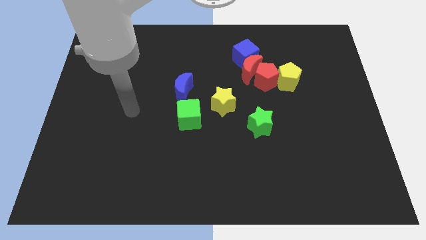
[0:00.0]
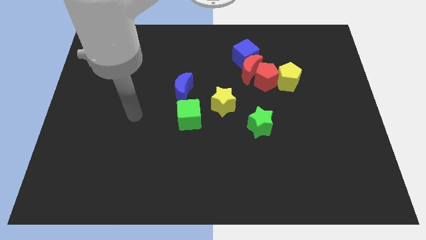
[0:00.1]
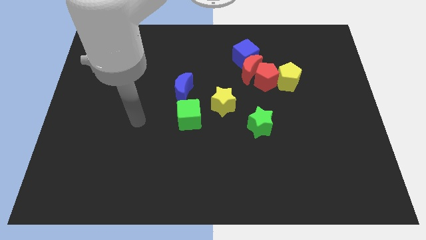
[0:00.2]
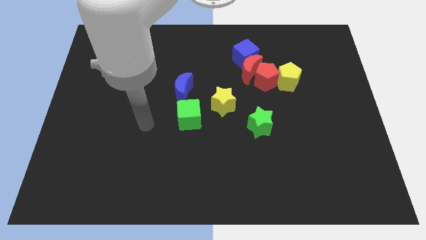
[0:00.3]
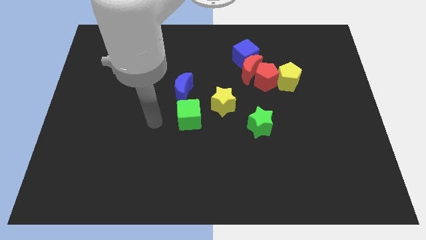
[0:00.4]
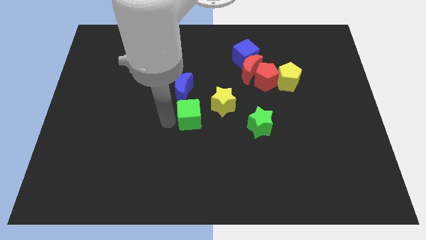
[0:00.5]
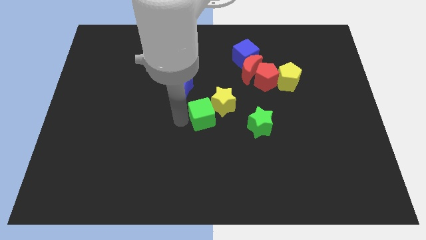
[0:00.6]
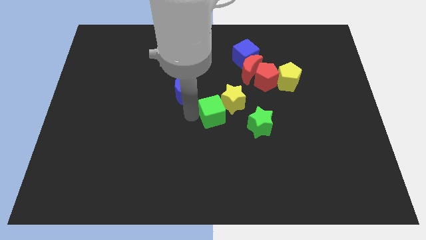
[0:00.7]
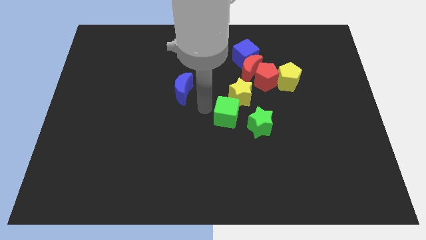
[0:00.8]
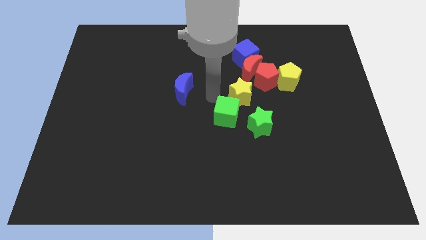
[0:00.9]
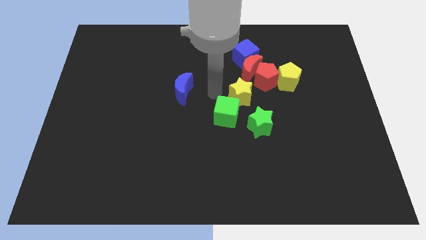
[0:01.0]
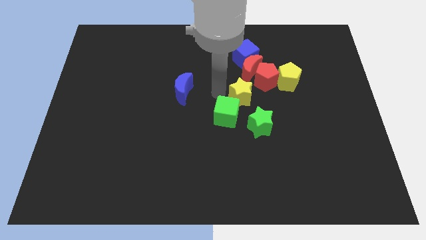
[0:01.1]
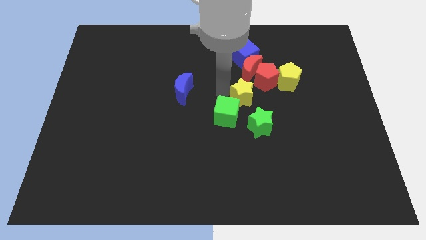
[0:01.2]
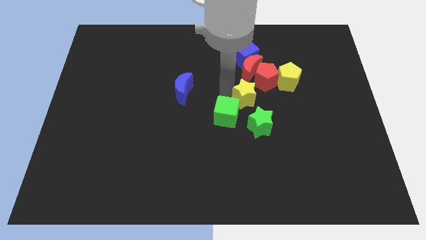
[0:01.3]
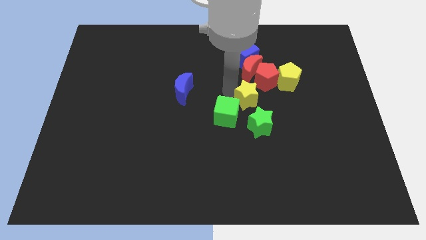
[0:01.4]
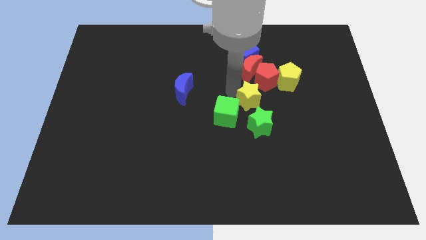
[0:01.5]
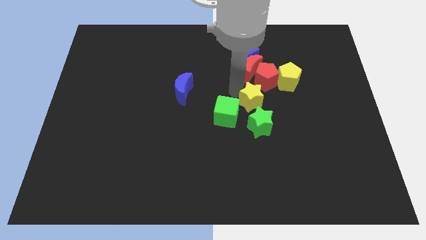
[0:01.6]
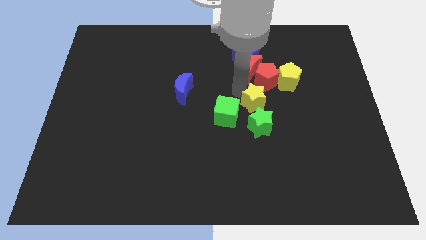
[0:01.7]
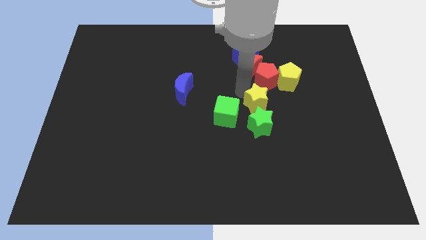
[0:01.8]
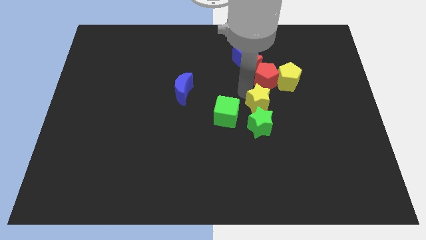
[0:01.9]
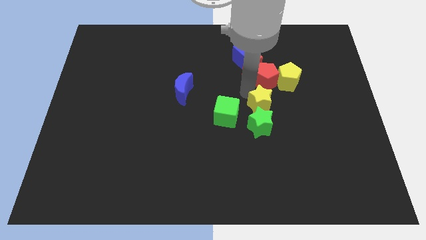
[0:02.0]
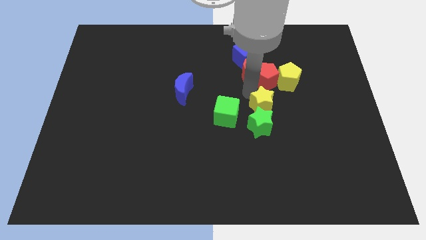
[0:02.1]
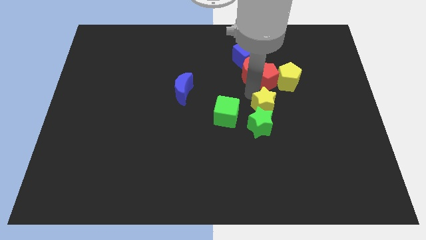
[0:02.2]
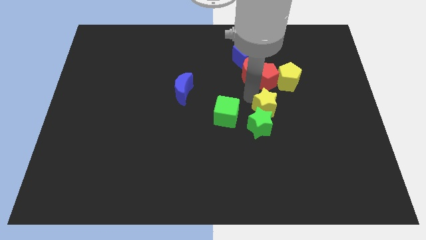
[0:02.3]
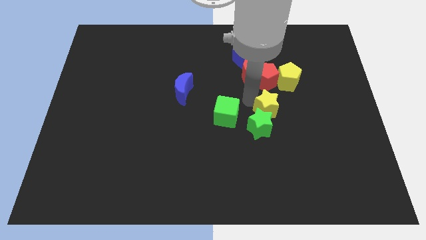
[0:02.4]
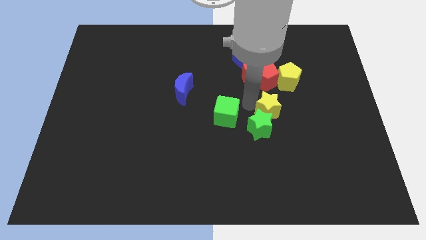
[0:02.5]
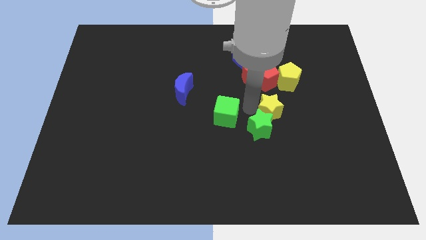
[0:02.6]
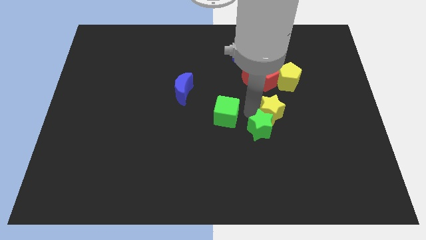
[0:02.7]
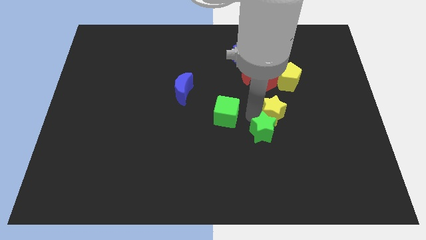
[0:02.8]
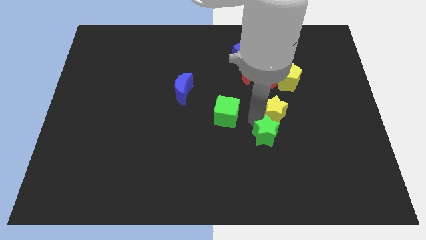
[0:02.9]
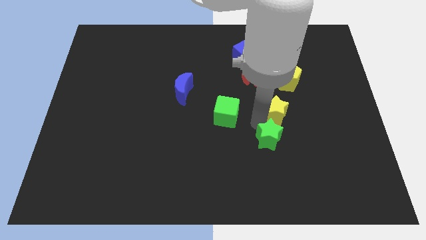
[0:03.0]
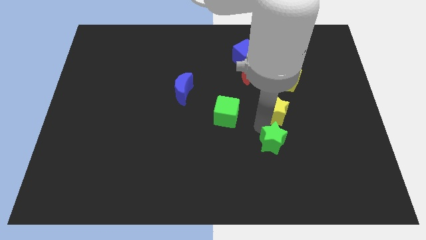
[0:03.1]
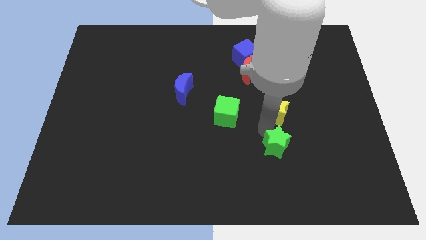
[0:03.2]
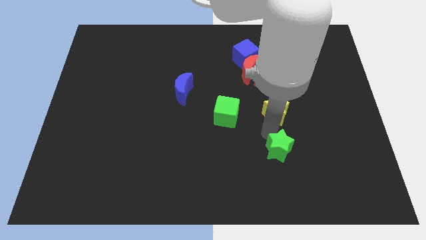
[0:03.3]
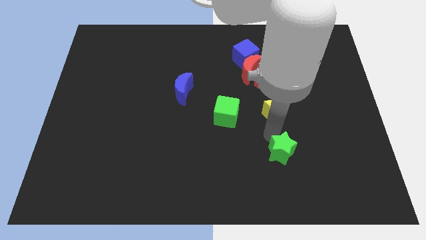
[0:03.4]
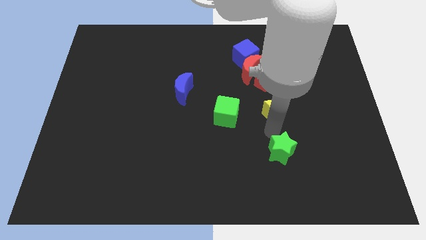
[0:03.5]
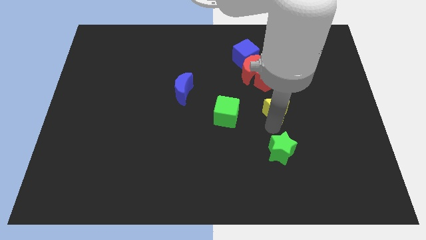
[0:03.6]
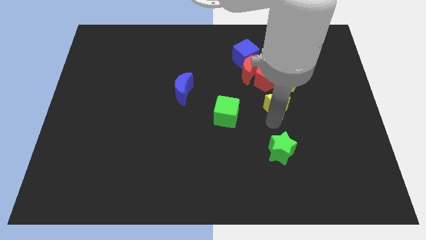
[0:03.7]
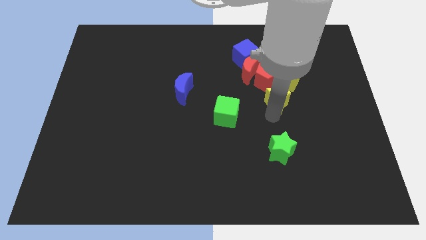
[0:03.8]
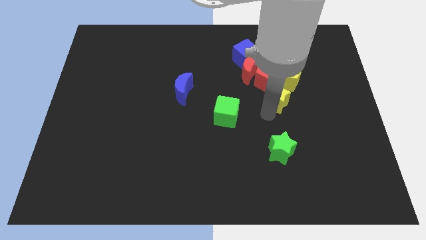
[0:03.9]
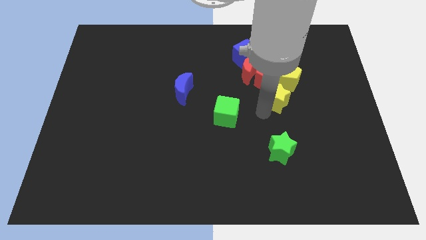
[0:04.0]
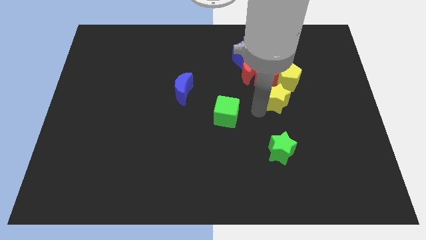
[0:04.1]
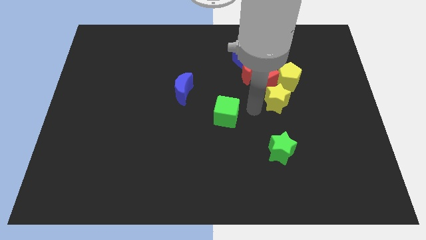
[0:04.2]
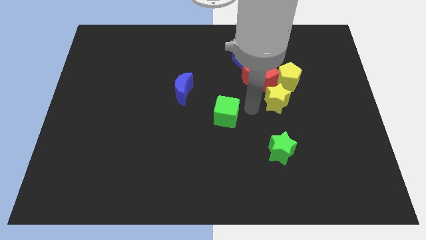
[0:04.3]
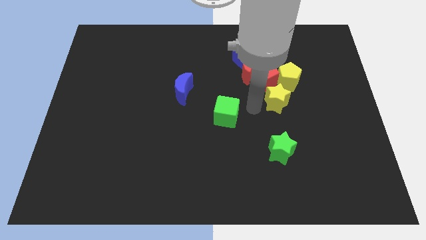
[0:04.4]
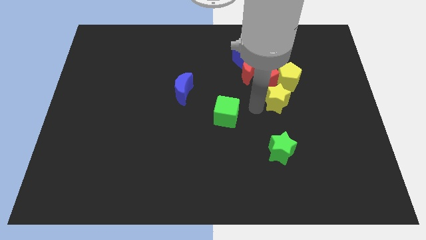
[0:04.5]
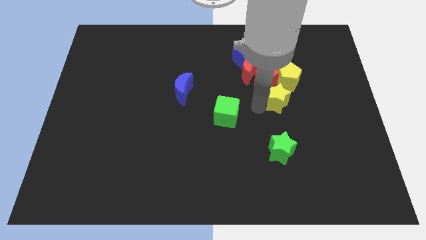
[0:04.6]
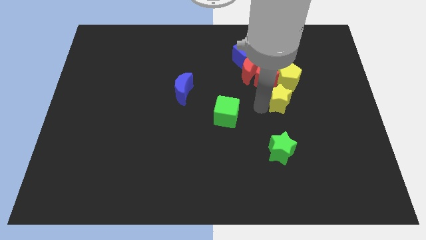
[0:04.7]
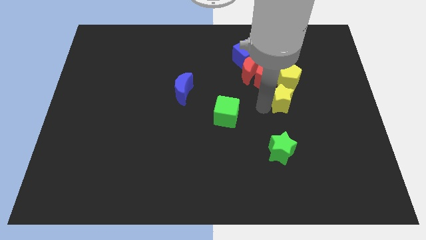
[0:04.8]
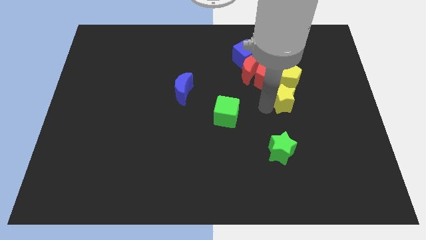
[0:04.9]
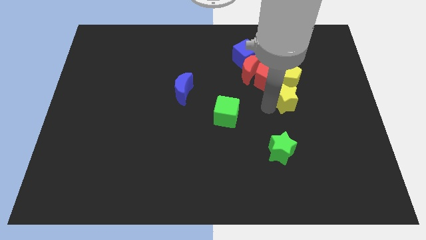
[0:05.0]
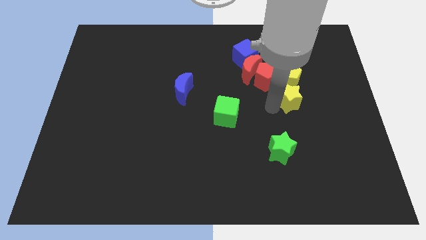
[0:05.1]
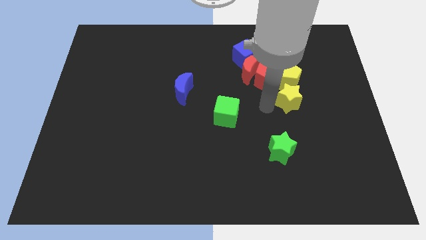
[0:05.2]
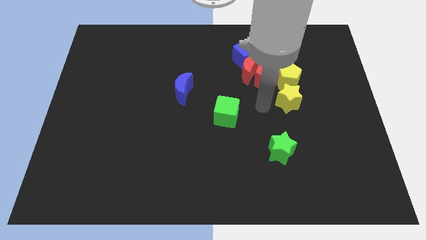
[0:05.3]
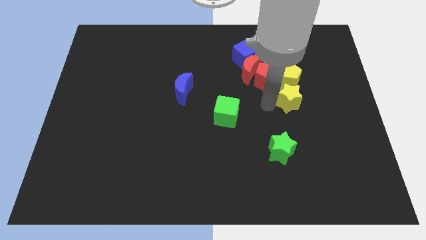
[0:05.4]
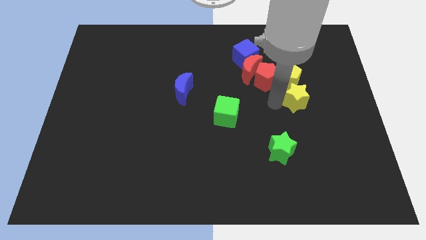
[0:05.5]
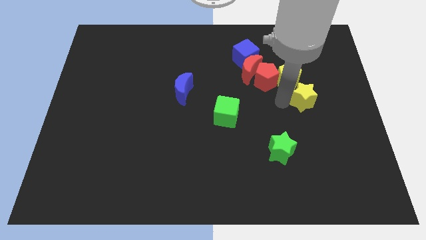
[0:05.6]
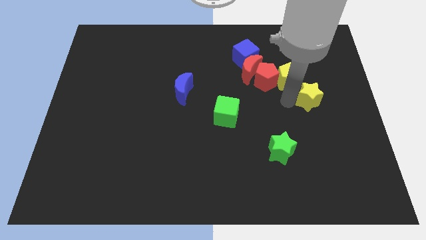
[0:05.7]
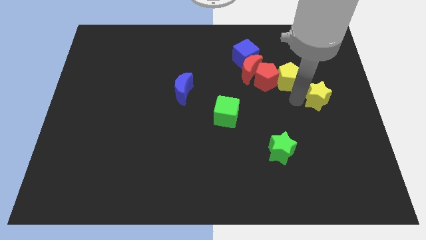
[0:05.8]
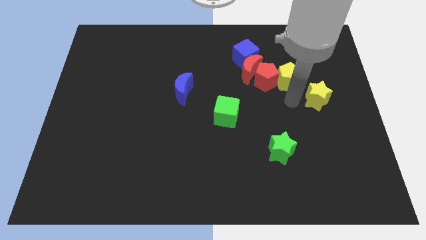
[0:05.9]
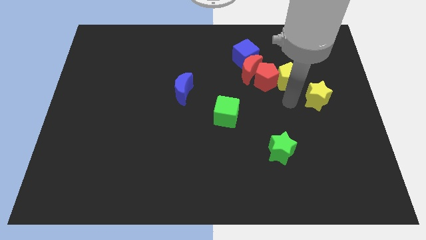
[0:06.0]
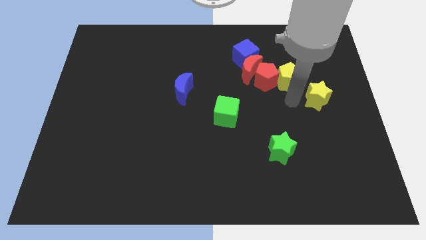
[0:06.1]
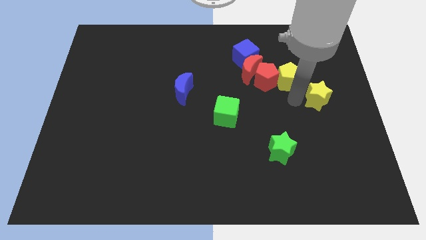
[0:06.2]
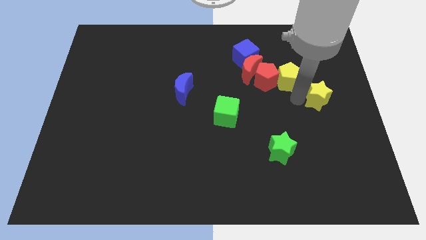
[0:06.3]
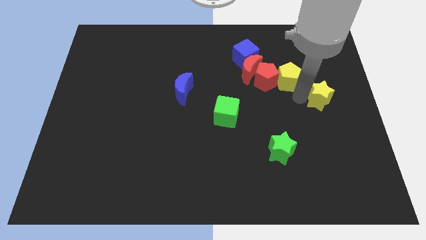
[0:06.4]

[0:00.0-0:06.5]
put the yellow star to the right side of the board

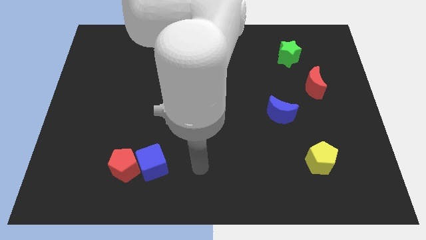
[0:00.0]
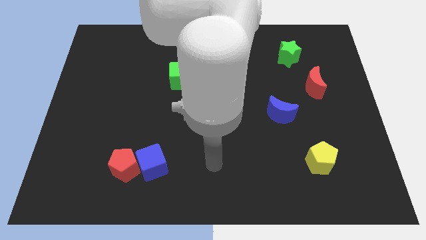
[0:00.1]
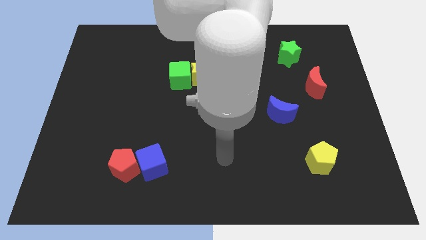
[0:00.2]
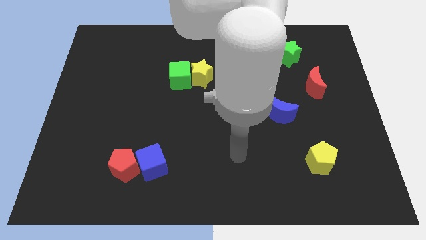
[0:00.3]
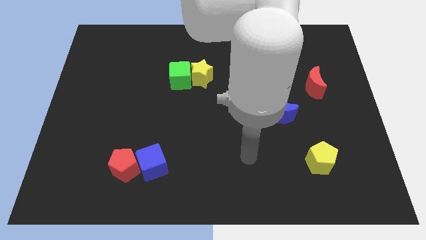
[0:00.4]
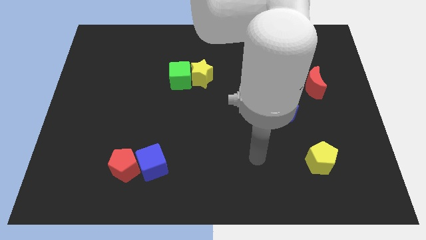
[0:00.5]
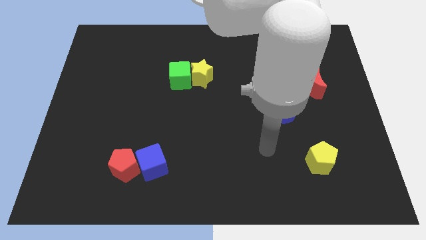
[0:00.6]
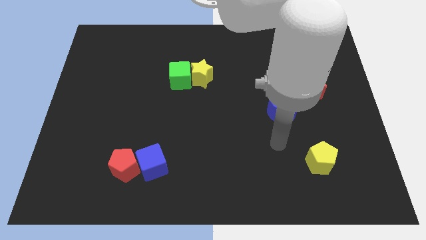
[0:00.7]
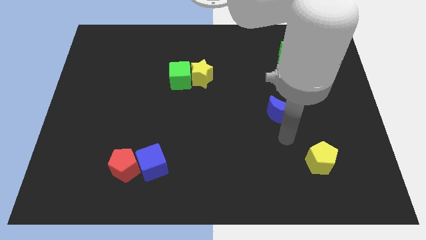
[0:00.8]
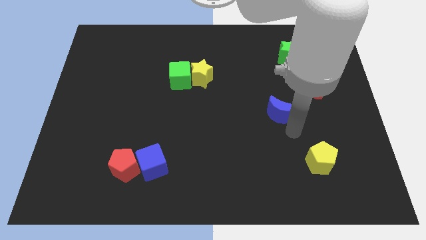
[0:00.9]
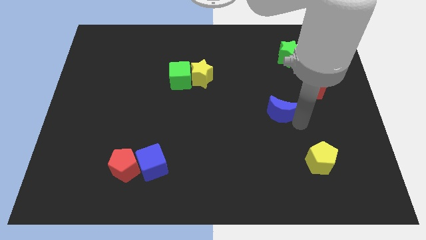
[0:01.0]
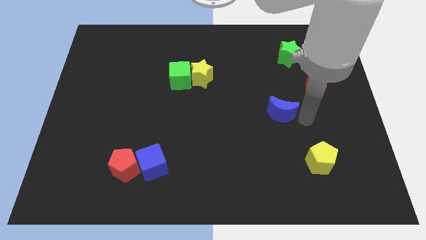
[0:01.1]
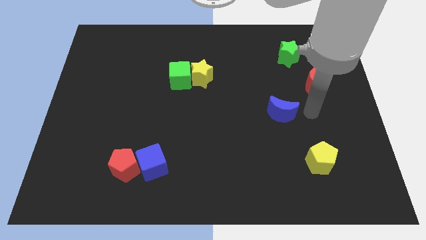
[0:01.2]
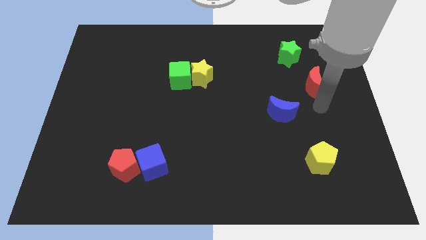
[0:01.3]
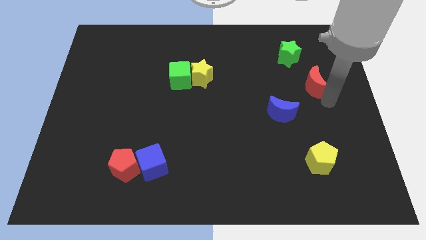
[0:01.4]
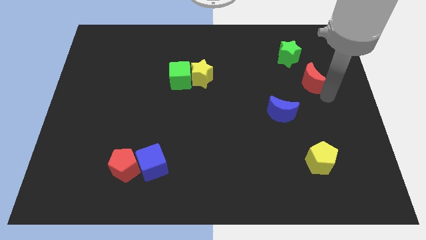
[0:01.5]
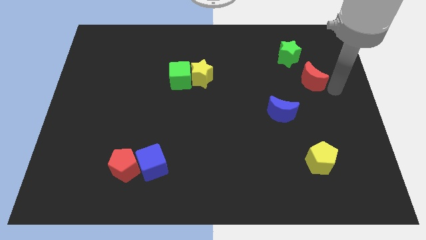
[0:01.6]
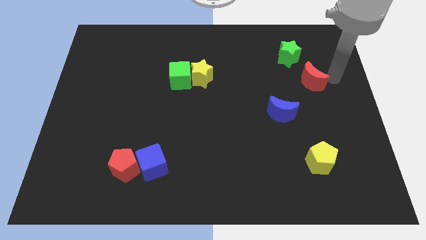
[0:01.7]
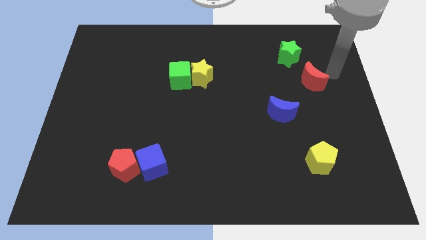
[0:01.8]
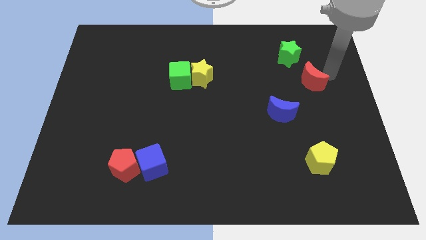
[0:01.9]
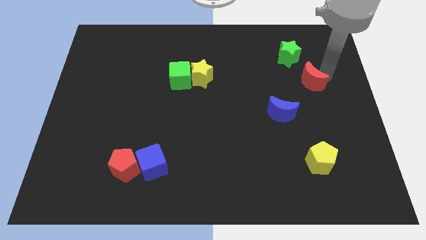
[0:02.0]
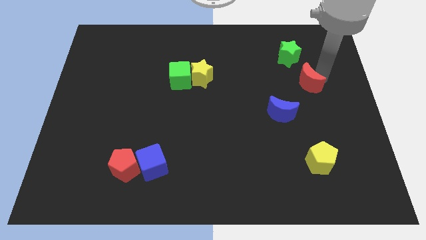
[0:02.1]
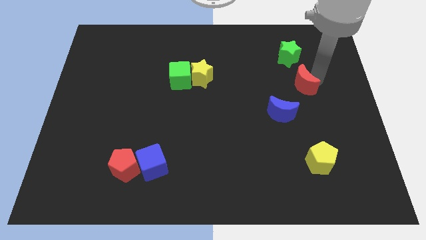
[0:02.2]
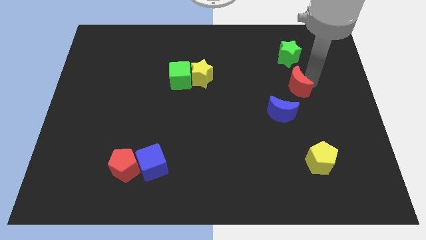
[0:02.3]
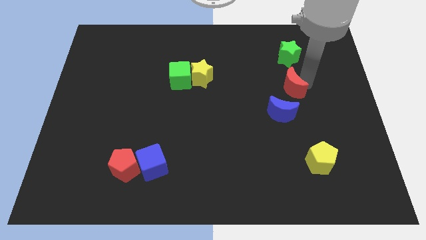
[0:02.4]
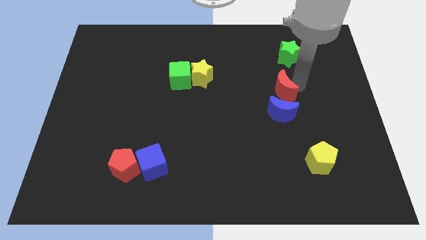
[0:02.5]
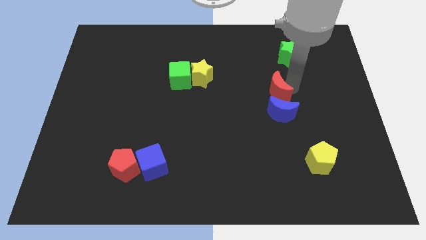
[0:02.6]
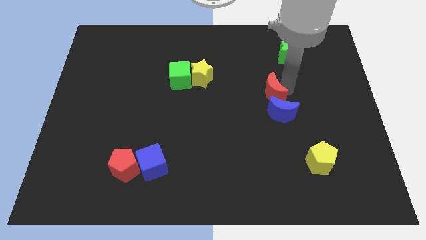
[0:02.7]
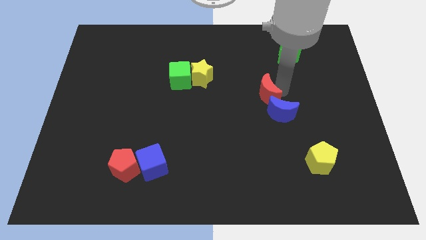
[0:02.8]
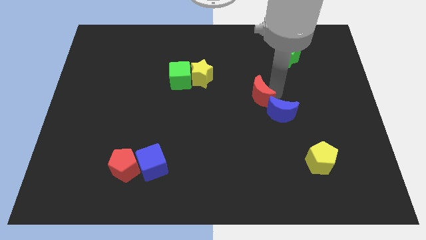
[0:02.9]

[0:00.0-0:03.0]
push the red moon to the center of the board
